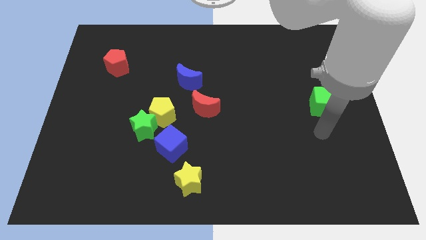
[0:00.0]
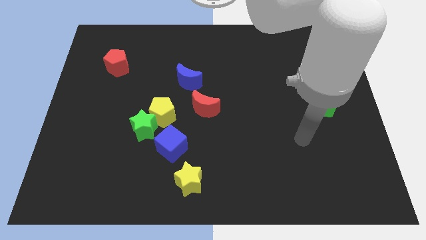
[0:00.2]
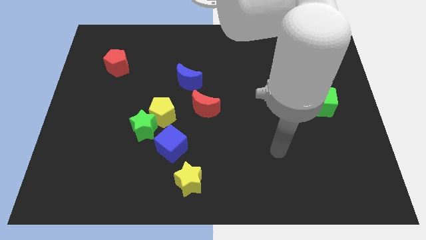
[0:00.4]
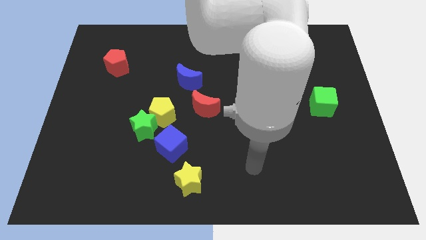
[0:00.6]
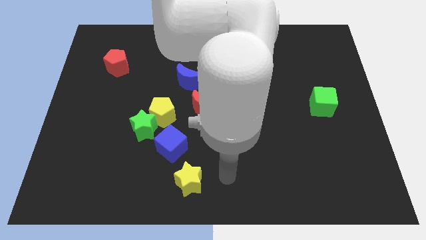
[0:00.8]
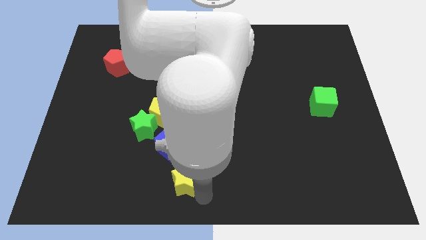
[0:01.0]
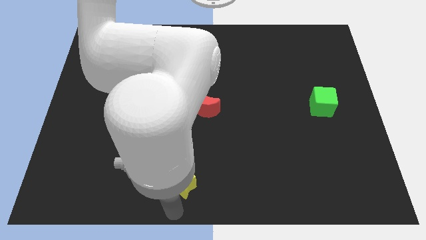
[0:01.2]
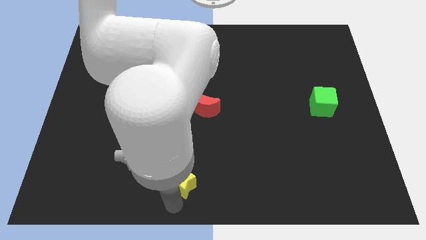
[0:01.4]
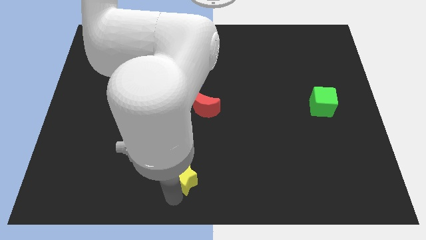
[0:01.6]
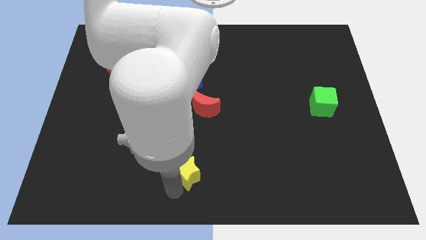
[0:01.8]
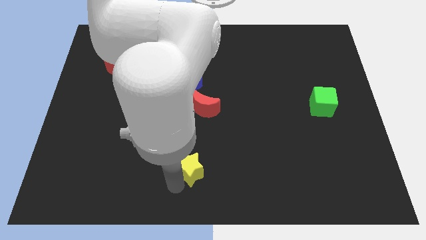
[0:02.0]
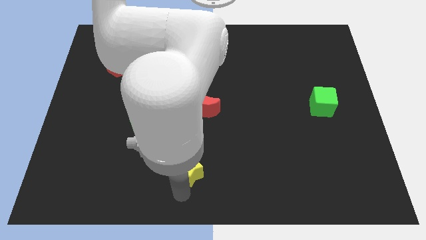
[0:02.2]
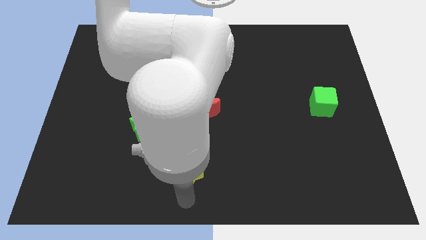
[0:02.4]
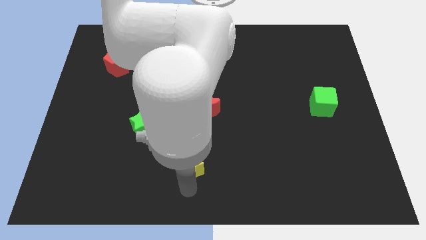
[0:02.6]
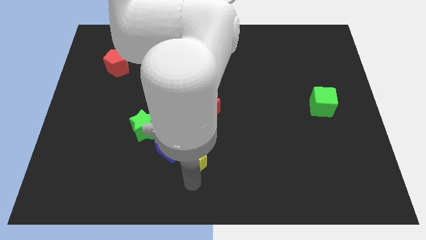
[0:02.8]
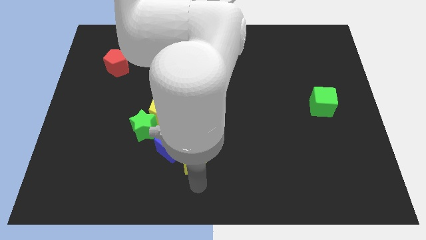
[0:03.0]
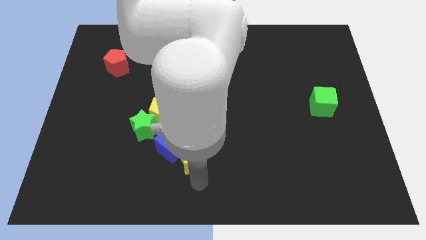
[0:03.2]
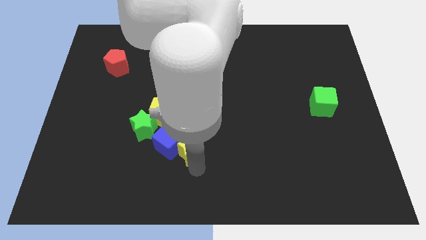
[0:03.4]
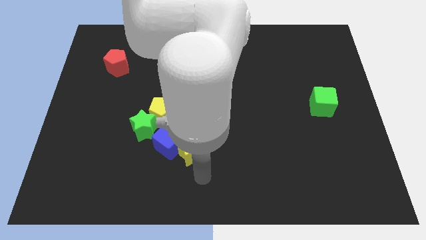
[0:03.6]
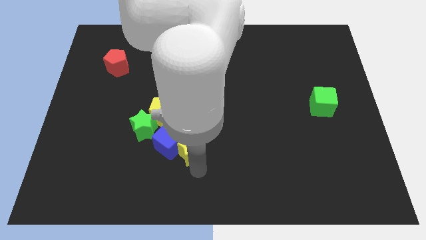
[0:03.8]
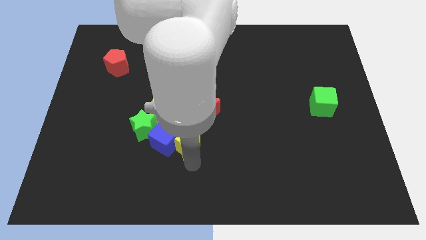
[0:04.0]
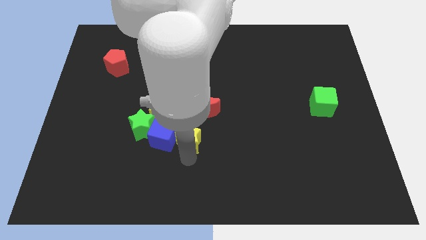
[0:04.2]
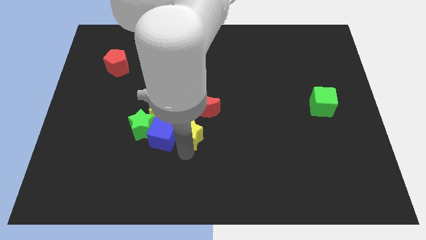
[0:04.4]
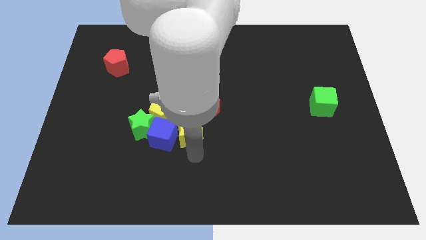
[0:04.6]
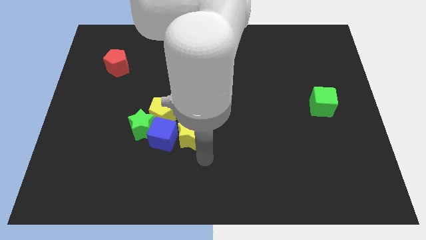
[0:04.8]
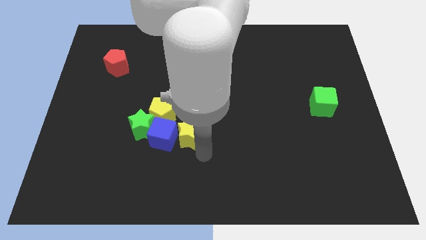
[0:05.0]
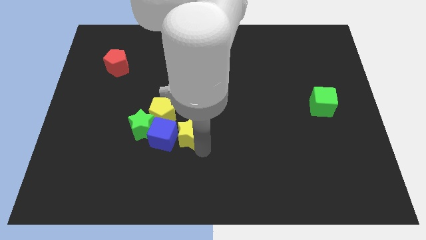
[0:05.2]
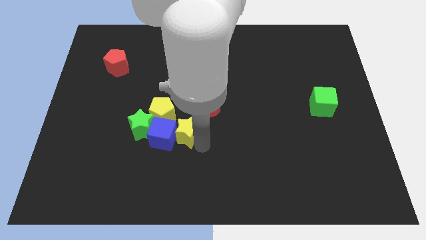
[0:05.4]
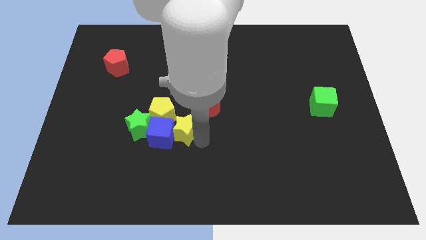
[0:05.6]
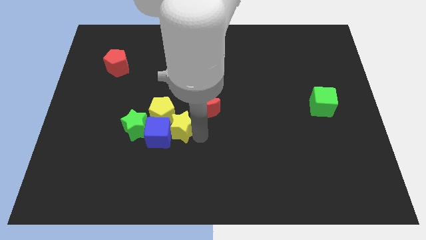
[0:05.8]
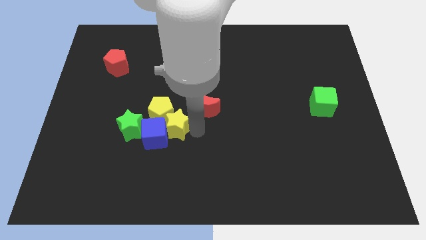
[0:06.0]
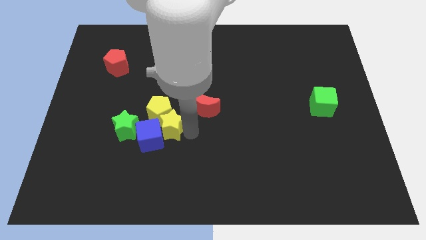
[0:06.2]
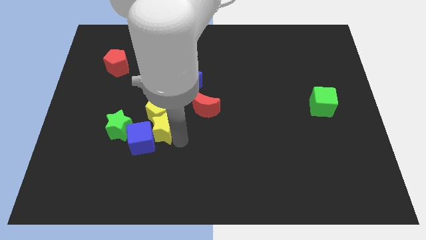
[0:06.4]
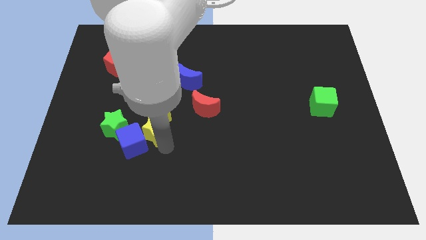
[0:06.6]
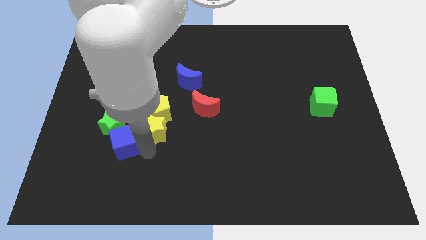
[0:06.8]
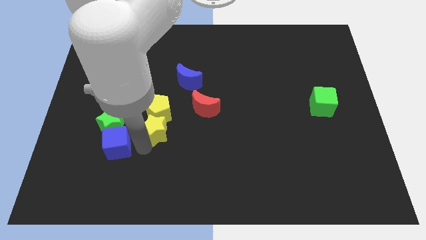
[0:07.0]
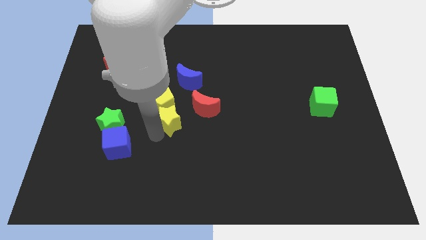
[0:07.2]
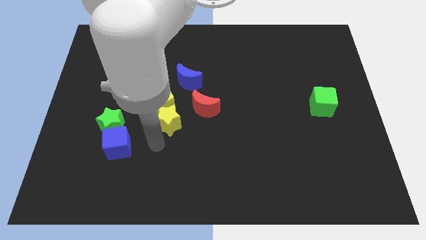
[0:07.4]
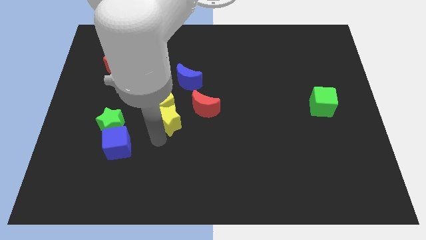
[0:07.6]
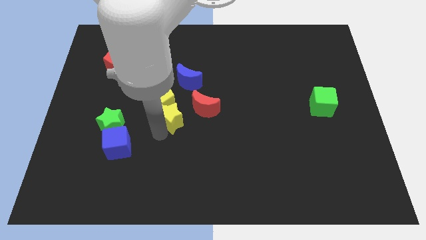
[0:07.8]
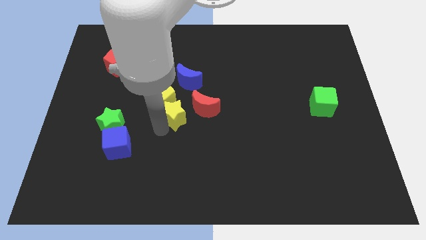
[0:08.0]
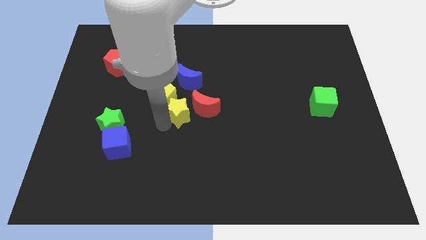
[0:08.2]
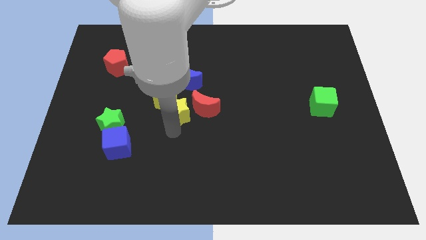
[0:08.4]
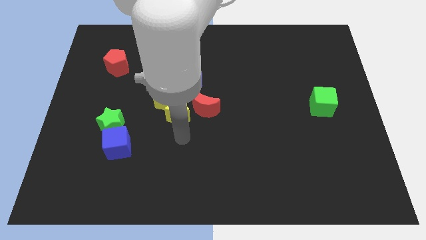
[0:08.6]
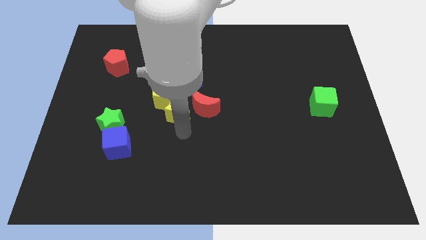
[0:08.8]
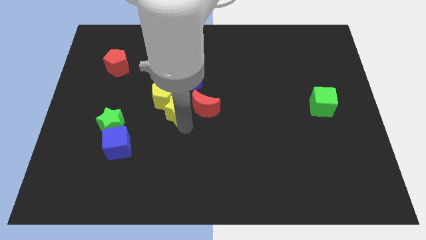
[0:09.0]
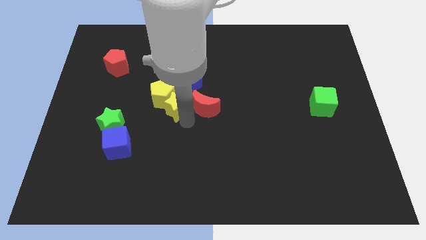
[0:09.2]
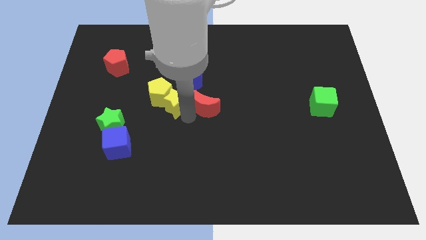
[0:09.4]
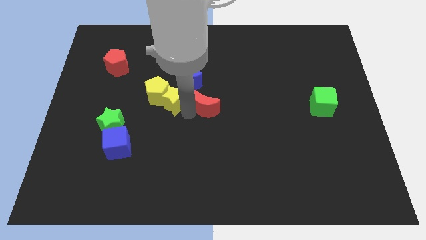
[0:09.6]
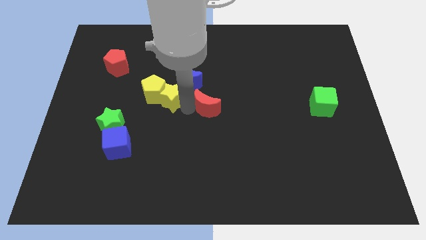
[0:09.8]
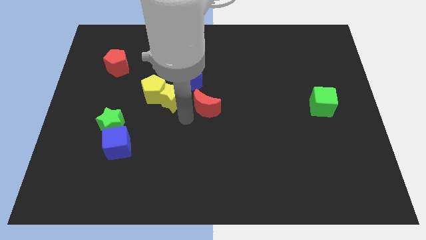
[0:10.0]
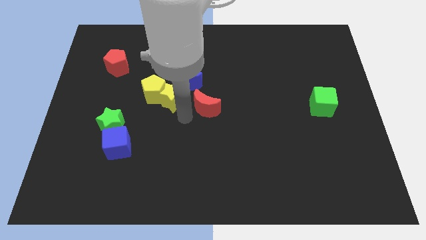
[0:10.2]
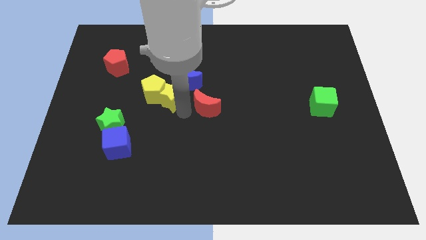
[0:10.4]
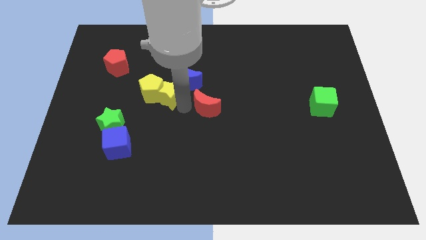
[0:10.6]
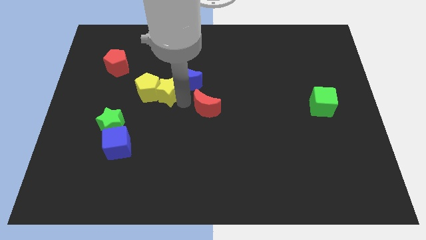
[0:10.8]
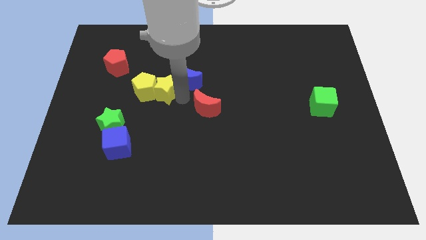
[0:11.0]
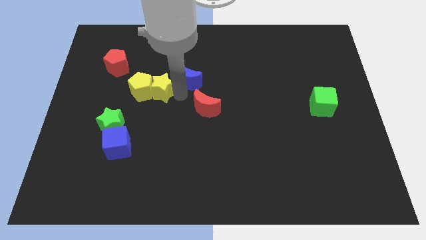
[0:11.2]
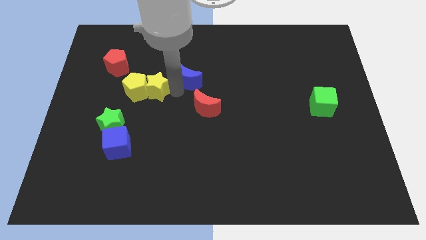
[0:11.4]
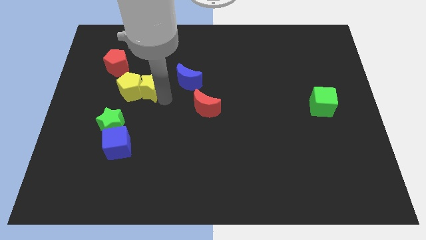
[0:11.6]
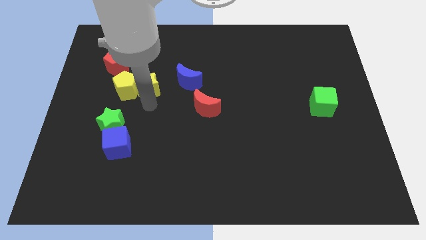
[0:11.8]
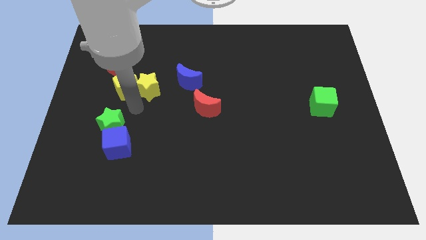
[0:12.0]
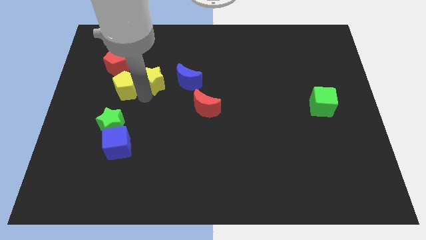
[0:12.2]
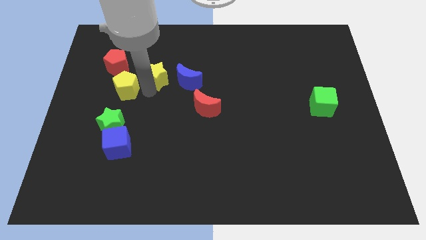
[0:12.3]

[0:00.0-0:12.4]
push the yellow star to the top left side of the blue moon
